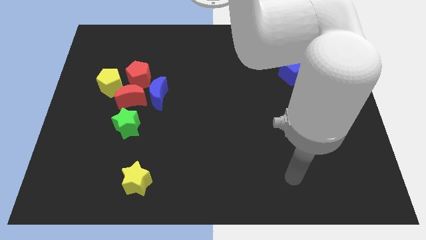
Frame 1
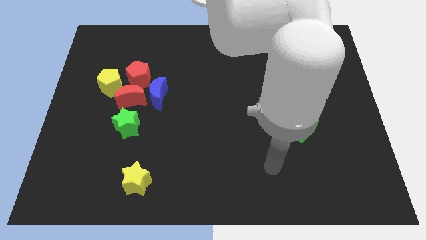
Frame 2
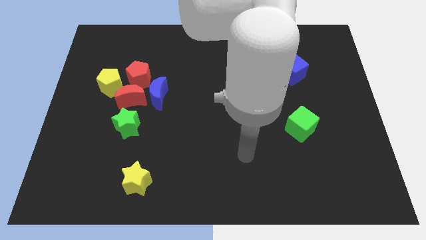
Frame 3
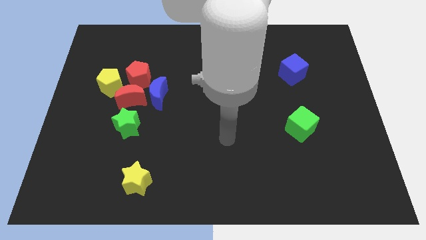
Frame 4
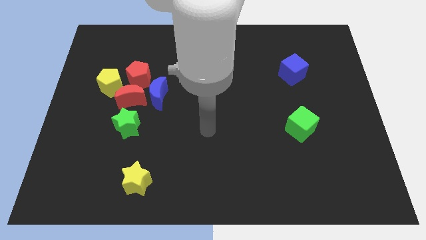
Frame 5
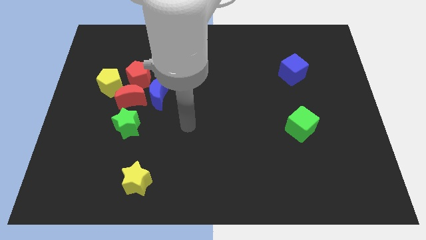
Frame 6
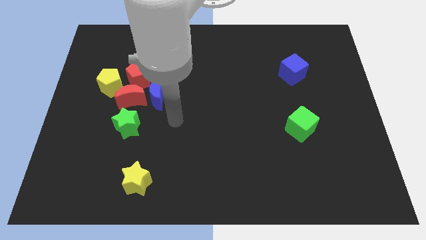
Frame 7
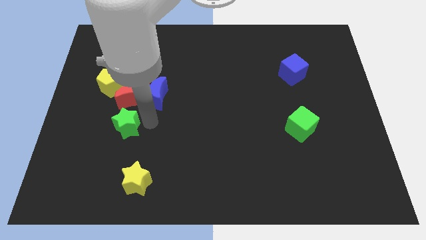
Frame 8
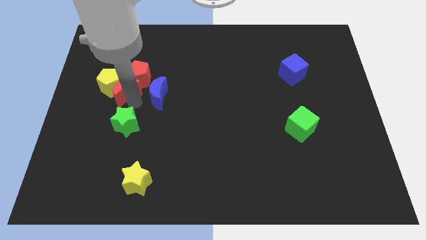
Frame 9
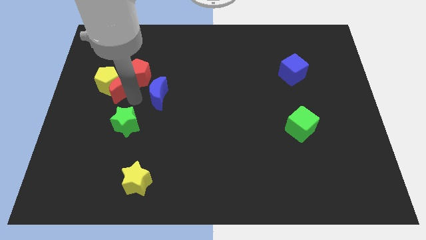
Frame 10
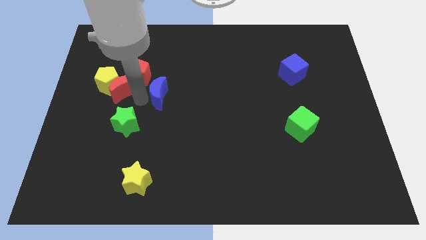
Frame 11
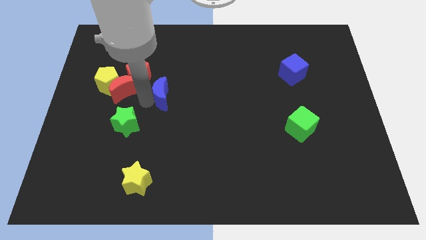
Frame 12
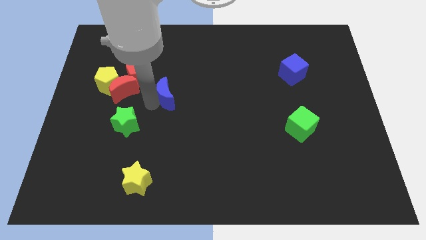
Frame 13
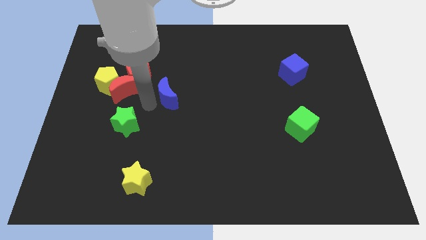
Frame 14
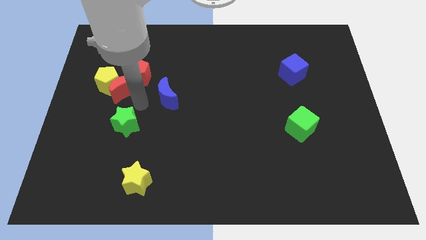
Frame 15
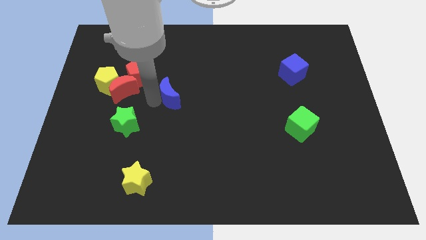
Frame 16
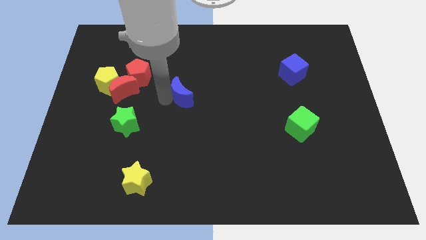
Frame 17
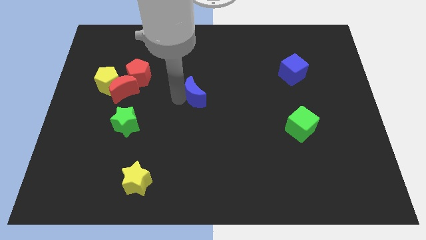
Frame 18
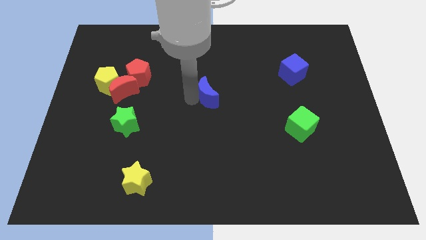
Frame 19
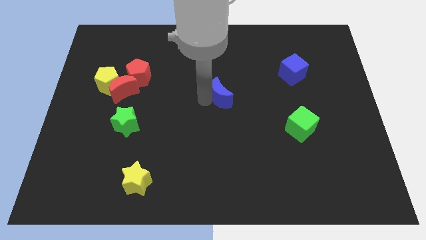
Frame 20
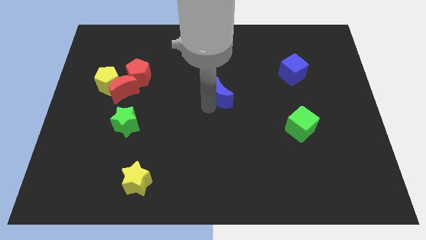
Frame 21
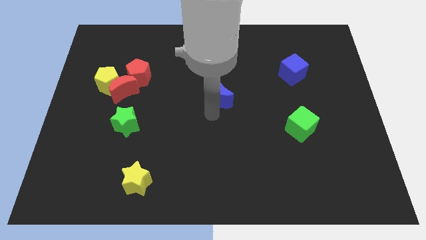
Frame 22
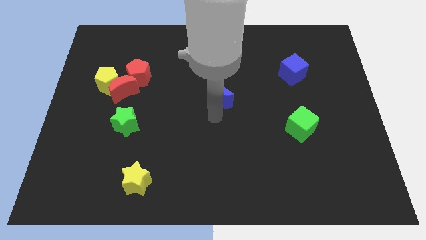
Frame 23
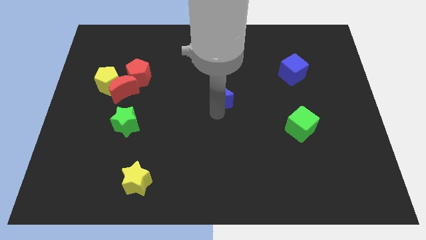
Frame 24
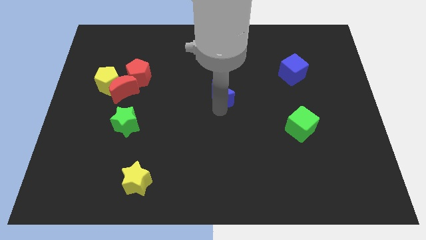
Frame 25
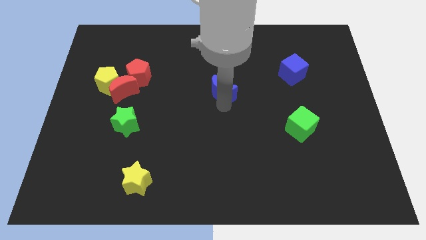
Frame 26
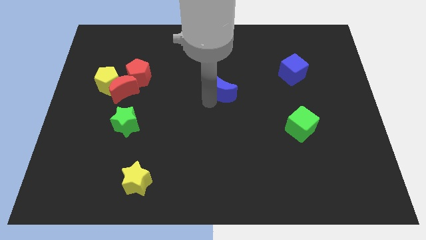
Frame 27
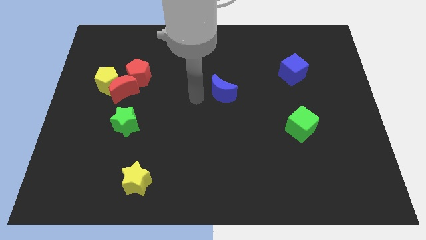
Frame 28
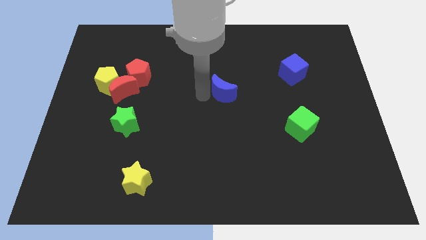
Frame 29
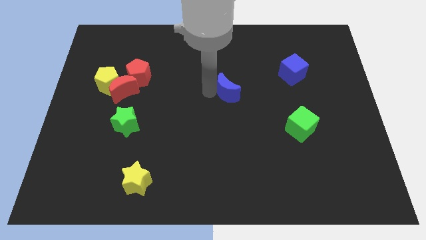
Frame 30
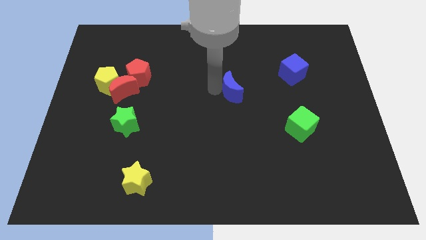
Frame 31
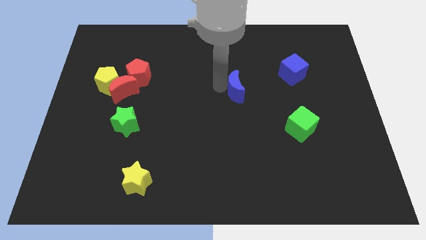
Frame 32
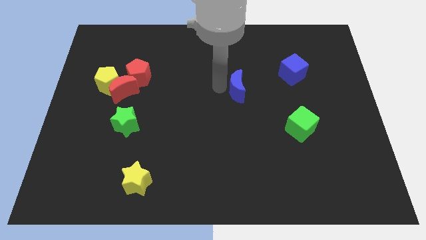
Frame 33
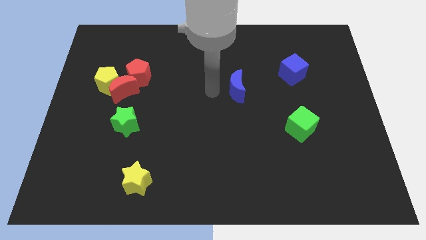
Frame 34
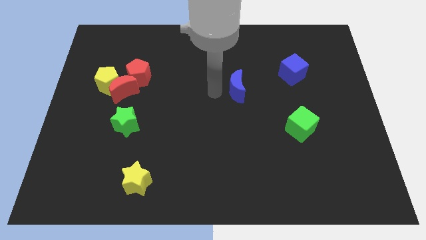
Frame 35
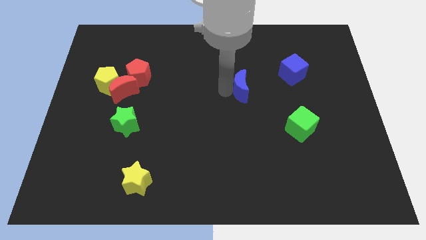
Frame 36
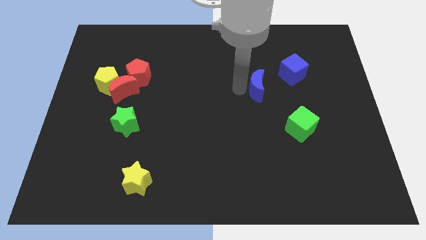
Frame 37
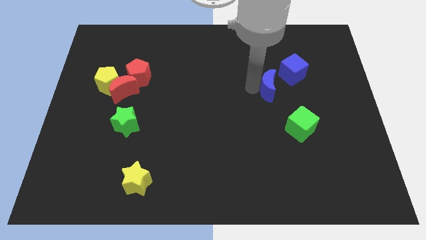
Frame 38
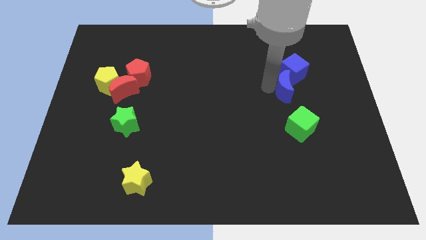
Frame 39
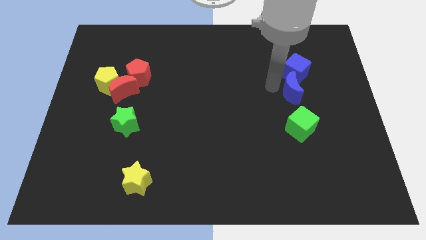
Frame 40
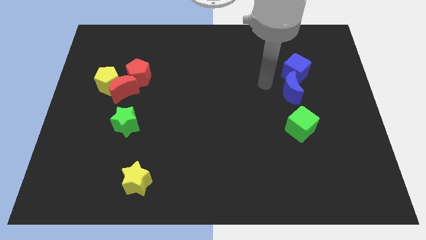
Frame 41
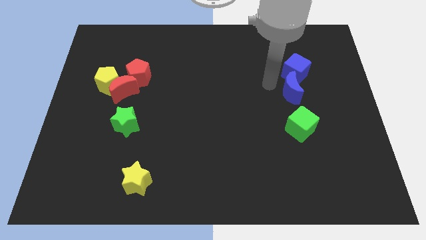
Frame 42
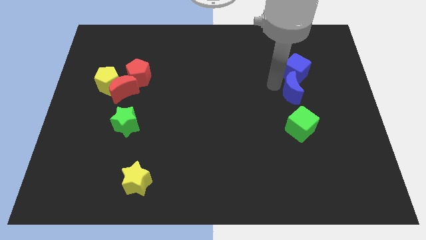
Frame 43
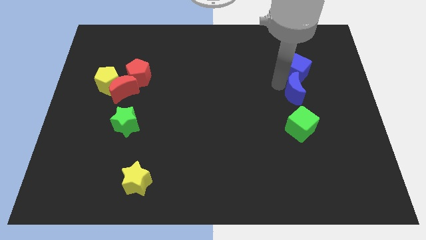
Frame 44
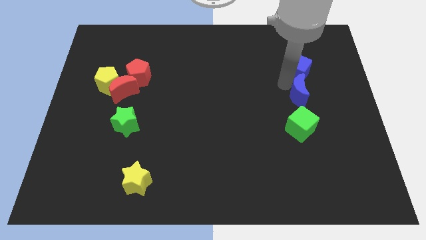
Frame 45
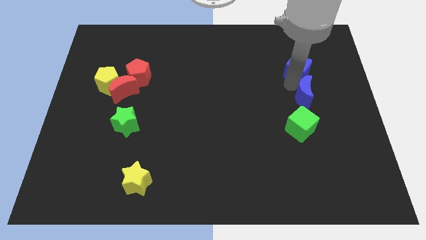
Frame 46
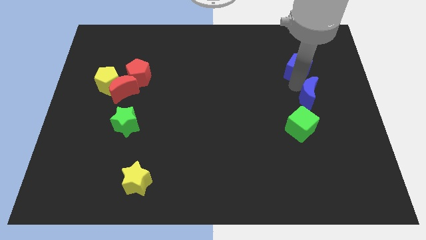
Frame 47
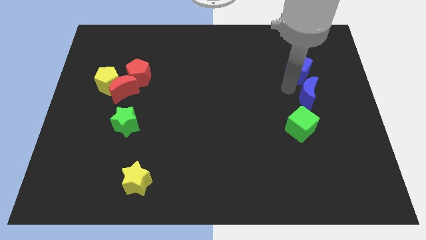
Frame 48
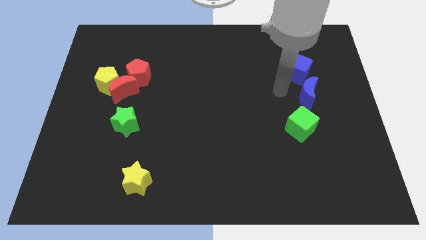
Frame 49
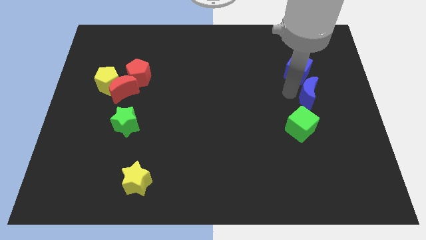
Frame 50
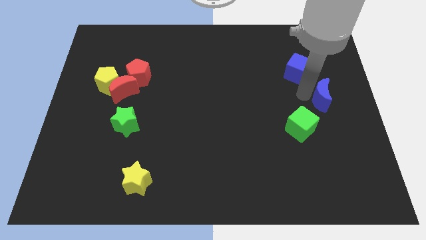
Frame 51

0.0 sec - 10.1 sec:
put the blue moon to the center right

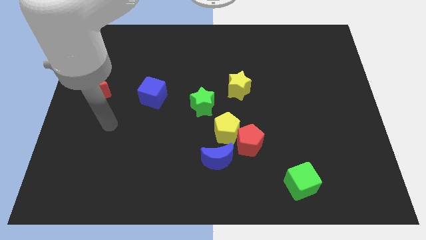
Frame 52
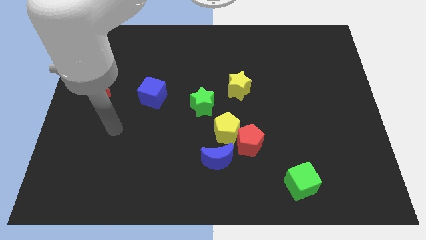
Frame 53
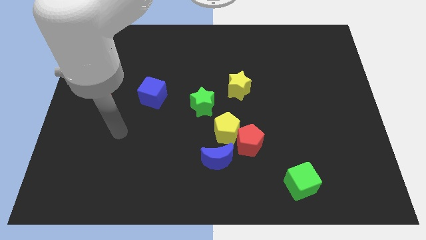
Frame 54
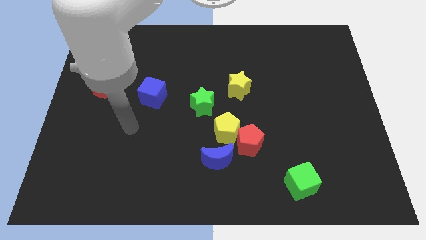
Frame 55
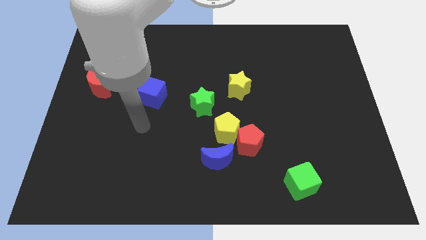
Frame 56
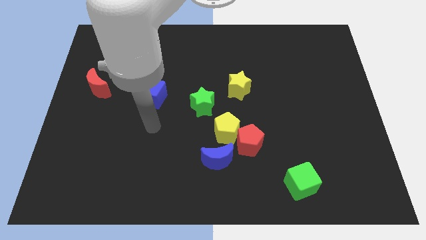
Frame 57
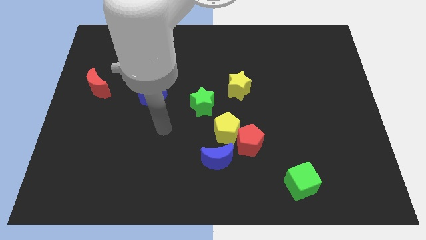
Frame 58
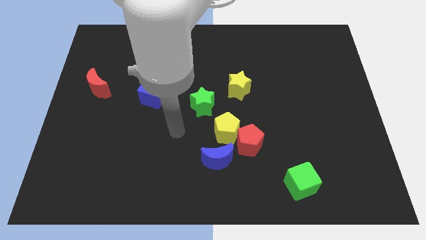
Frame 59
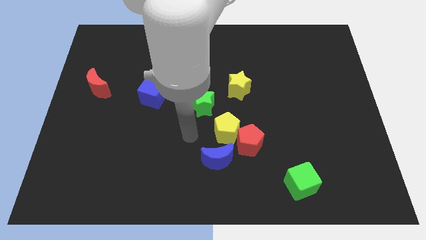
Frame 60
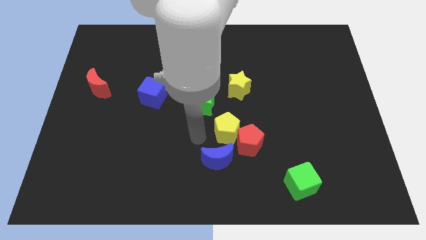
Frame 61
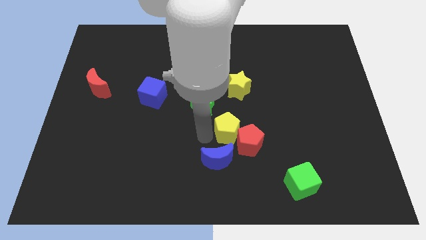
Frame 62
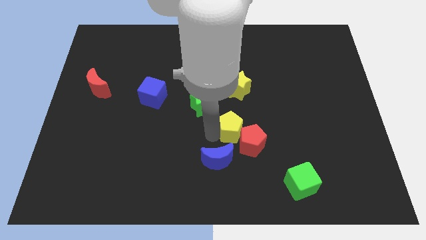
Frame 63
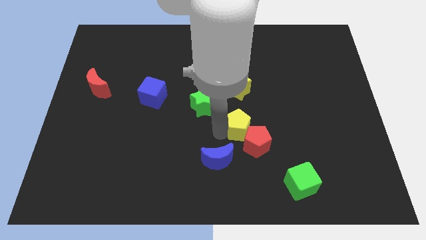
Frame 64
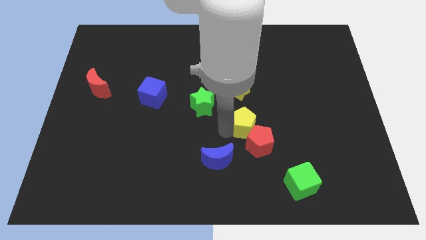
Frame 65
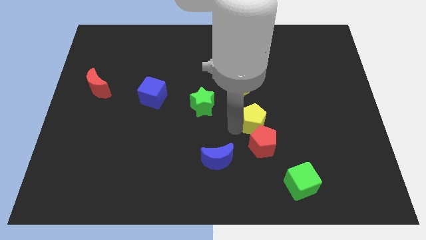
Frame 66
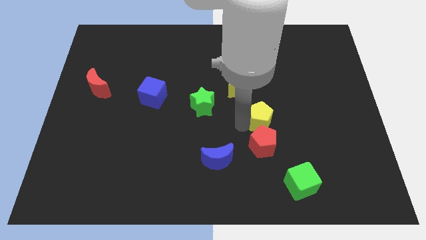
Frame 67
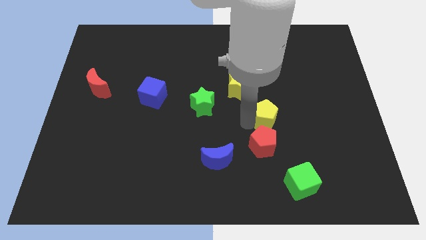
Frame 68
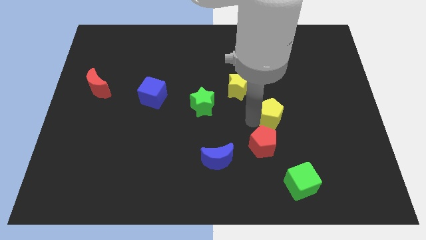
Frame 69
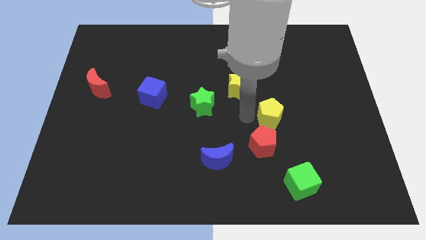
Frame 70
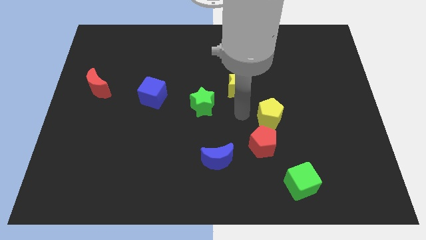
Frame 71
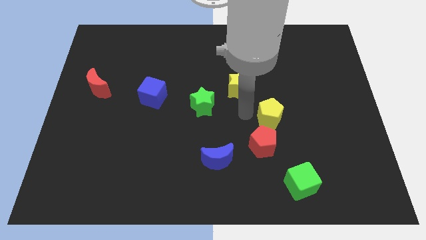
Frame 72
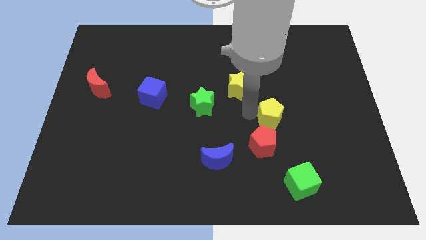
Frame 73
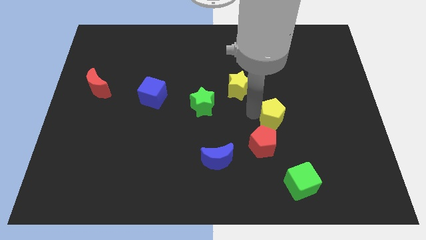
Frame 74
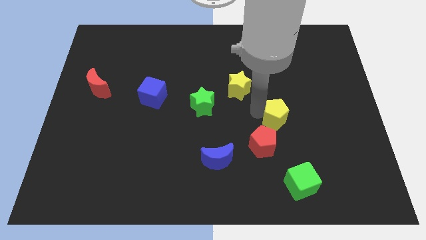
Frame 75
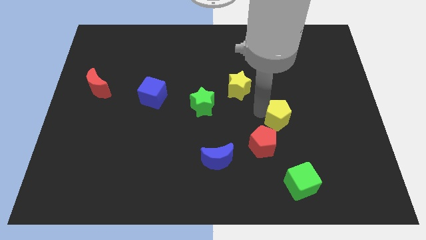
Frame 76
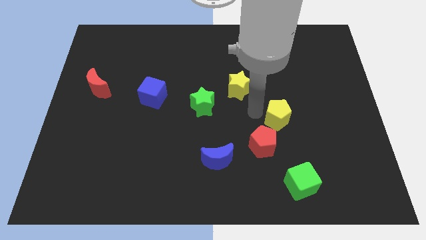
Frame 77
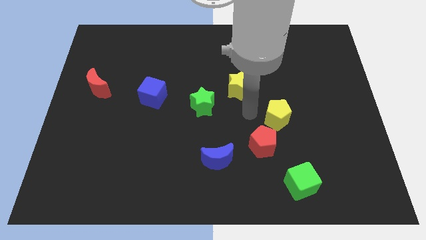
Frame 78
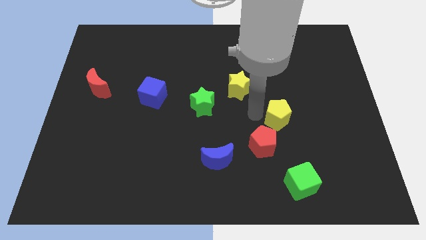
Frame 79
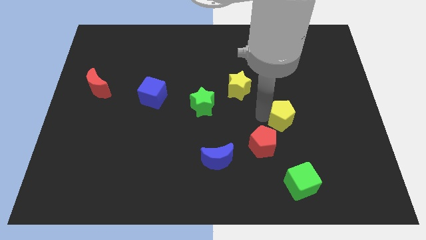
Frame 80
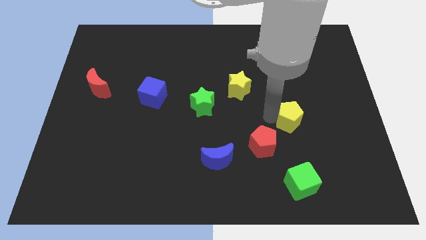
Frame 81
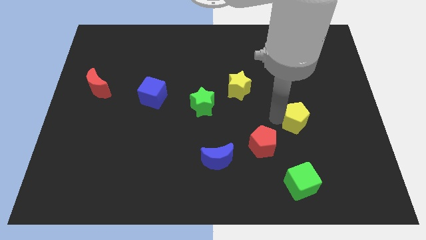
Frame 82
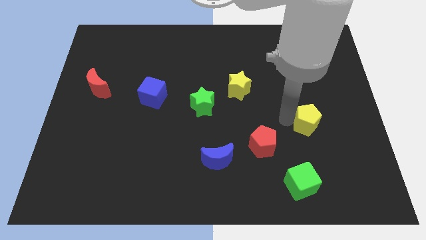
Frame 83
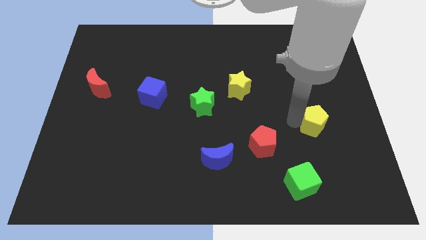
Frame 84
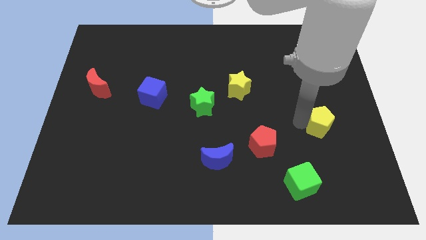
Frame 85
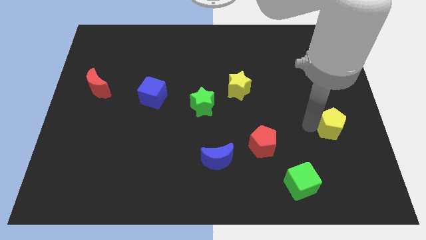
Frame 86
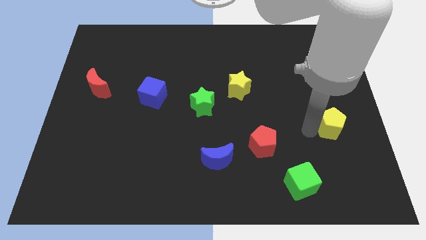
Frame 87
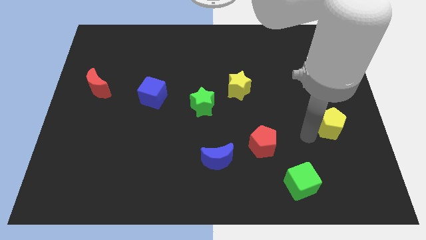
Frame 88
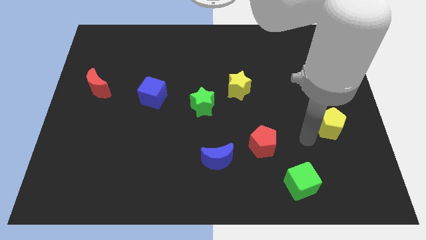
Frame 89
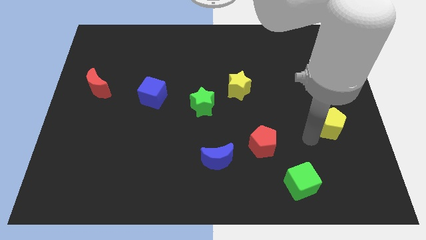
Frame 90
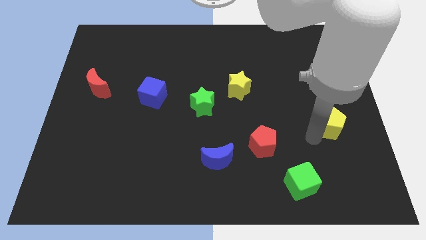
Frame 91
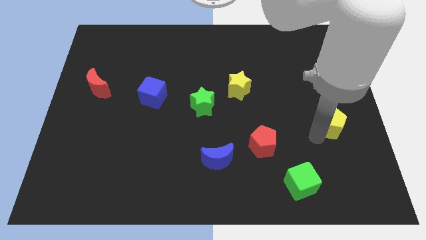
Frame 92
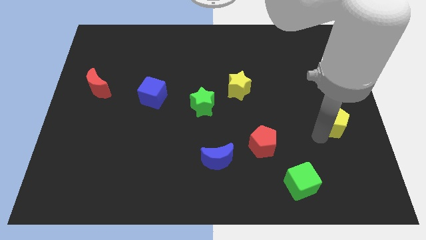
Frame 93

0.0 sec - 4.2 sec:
push the yellow pentagon to the right side of the board
